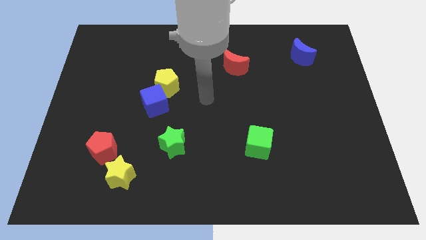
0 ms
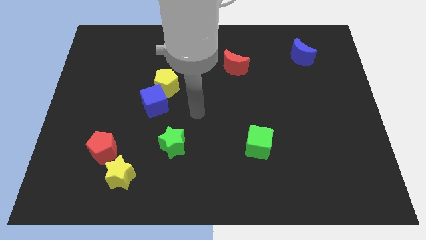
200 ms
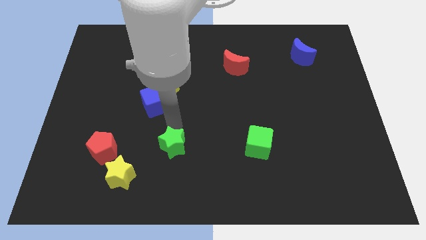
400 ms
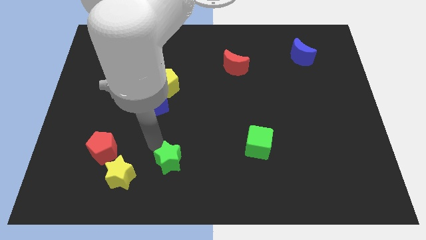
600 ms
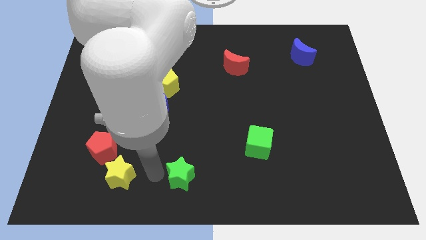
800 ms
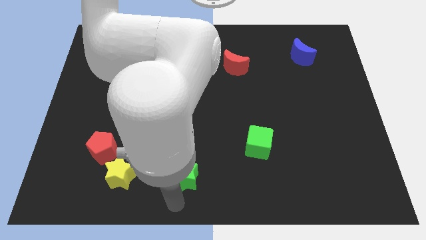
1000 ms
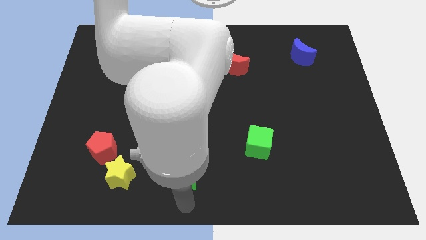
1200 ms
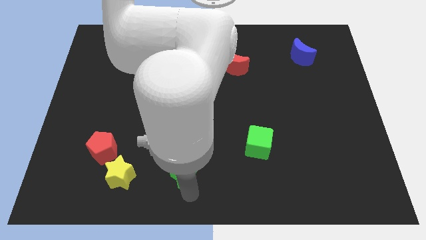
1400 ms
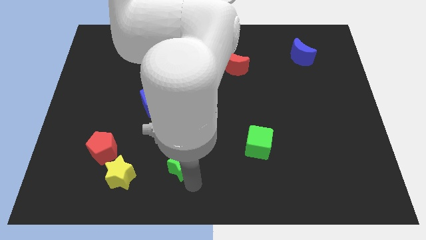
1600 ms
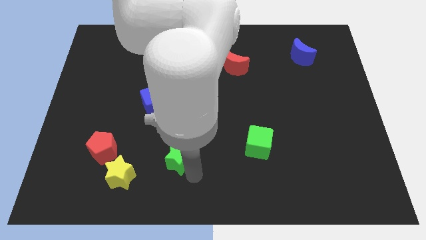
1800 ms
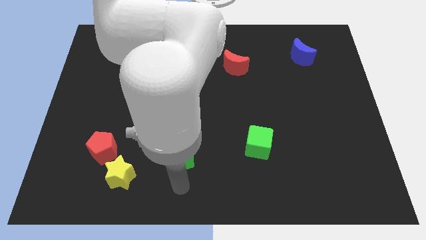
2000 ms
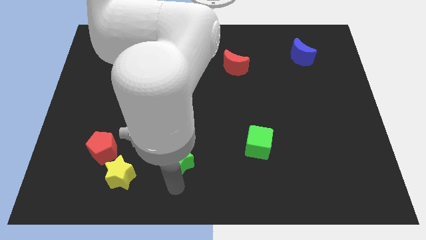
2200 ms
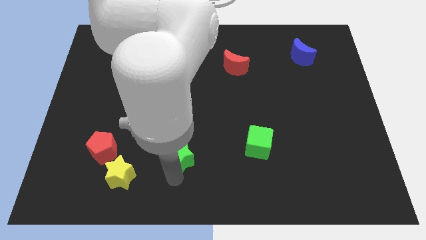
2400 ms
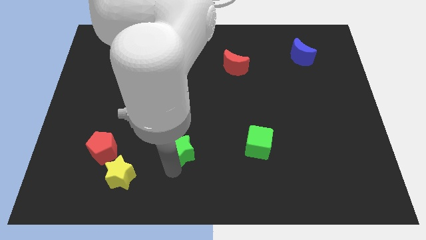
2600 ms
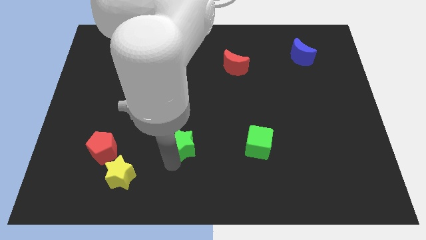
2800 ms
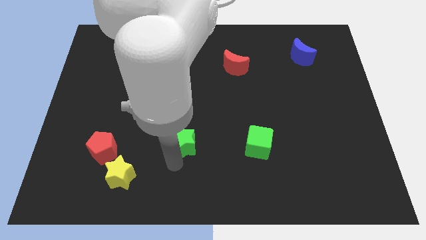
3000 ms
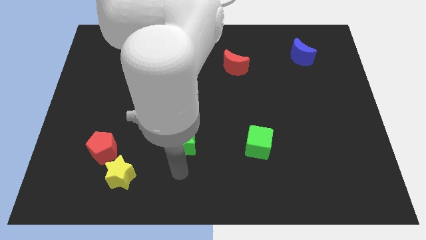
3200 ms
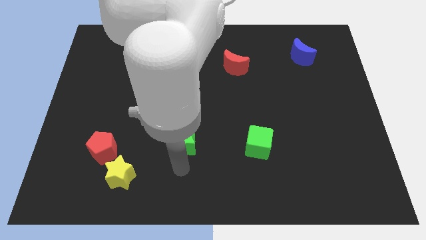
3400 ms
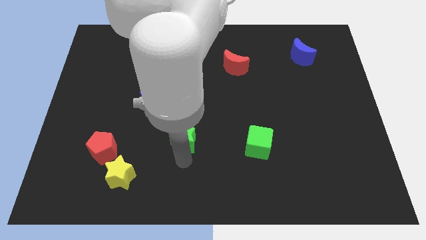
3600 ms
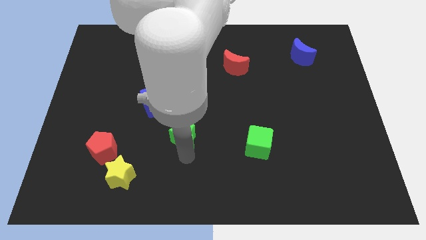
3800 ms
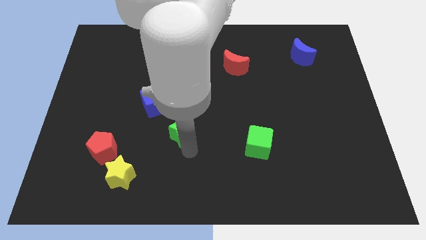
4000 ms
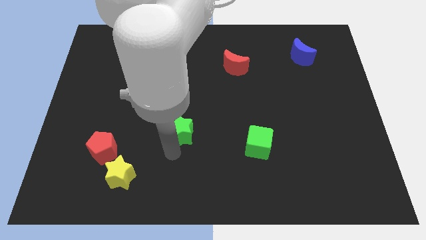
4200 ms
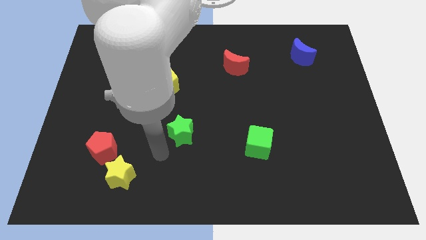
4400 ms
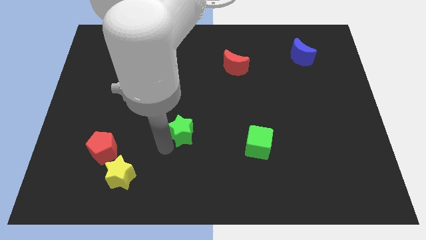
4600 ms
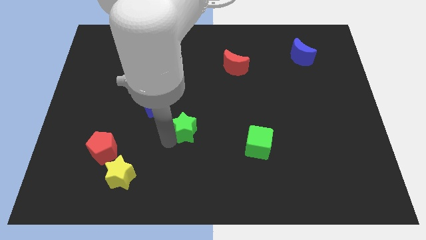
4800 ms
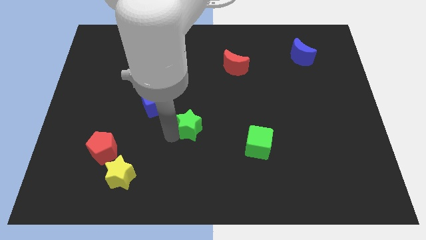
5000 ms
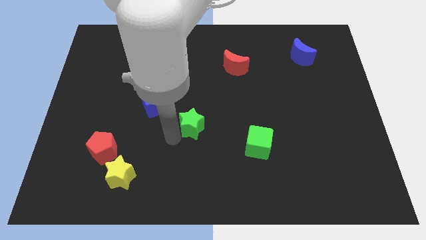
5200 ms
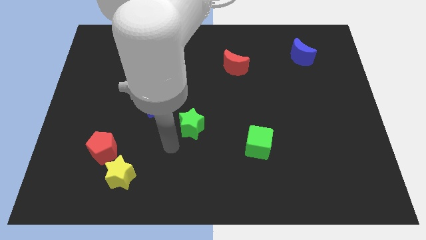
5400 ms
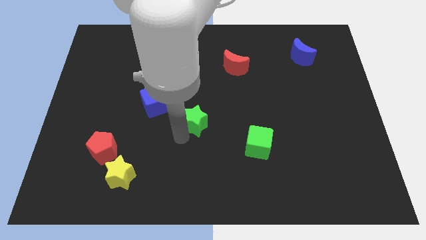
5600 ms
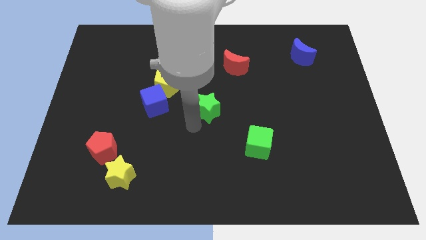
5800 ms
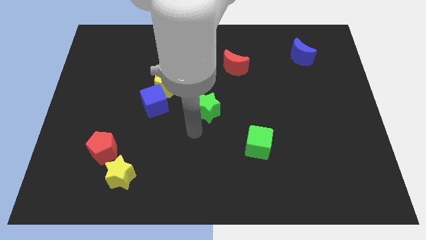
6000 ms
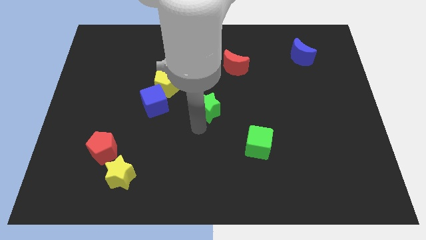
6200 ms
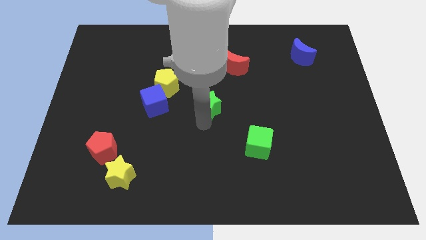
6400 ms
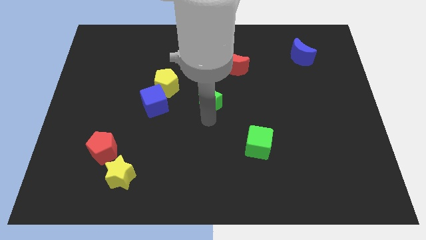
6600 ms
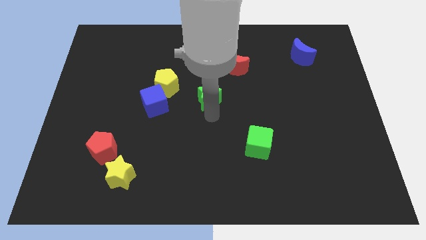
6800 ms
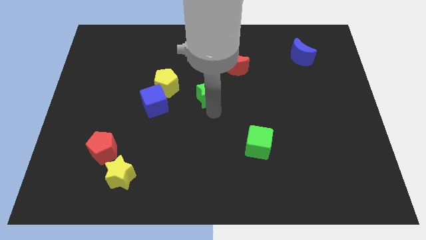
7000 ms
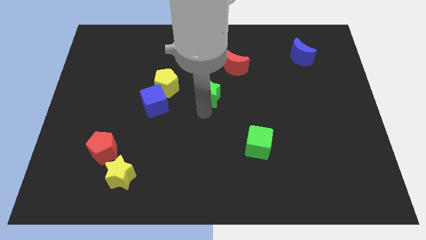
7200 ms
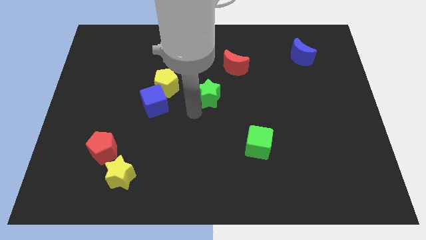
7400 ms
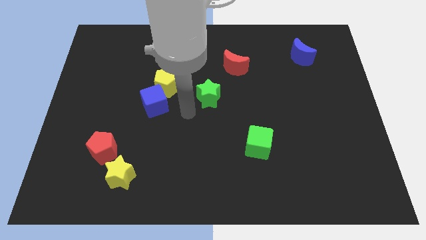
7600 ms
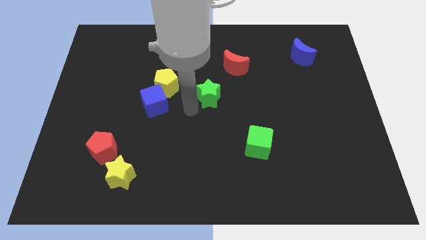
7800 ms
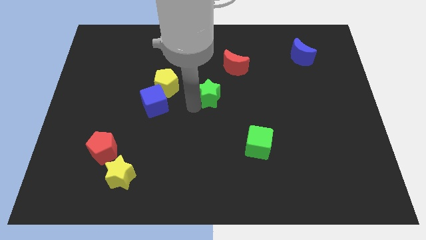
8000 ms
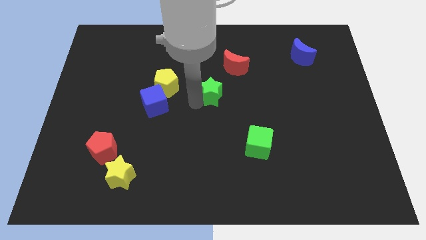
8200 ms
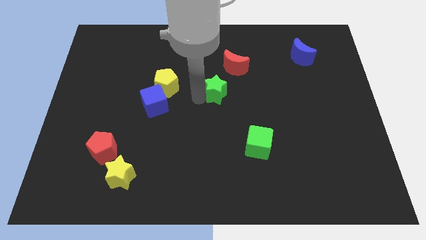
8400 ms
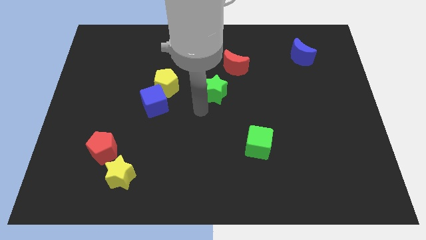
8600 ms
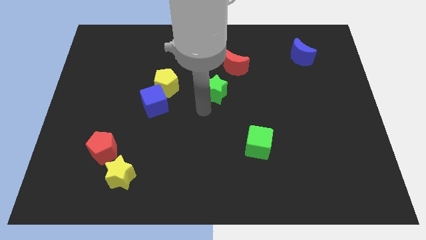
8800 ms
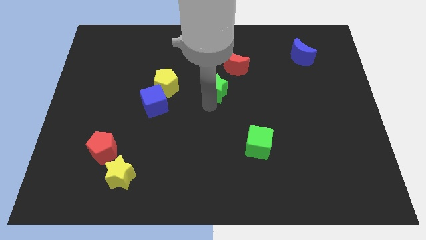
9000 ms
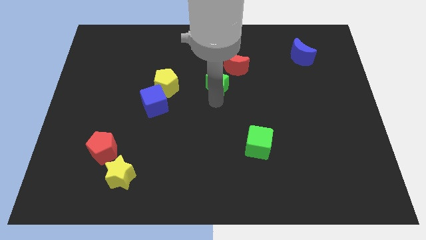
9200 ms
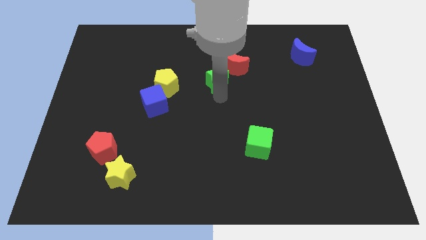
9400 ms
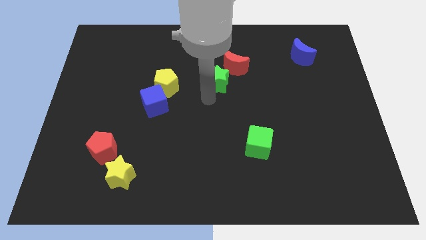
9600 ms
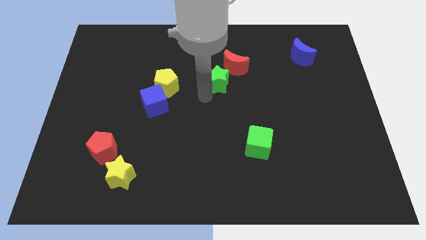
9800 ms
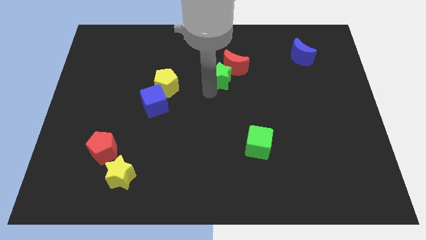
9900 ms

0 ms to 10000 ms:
move the green star towards the red moon

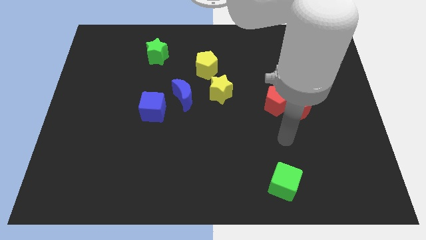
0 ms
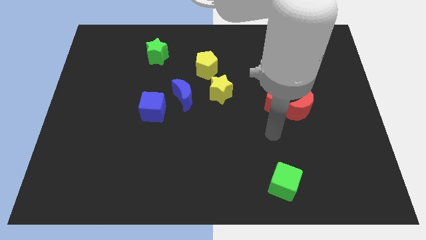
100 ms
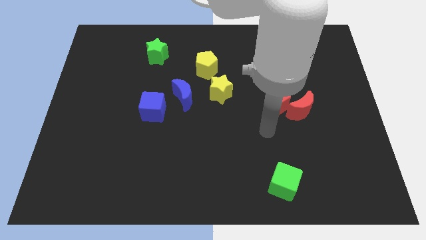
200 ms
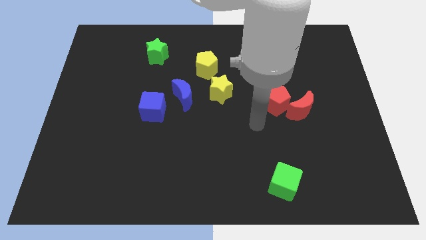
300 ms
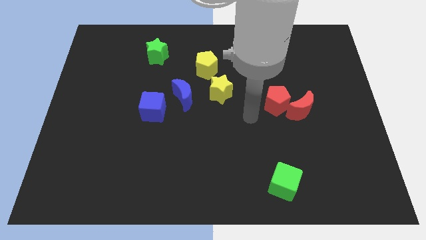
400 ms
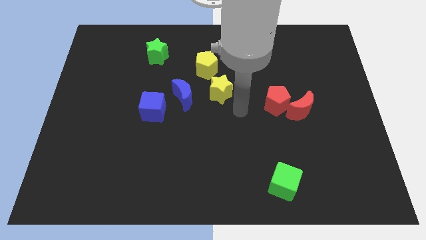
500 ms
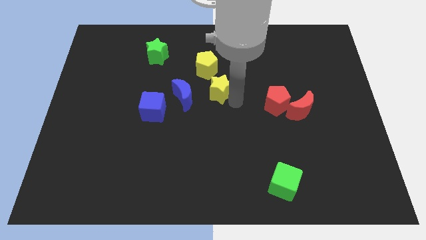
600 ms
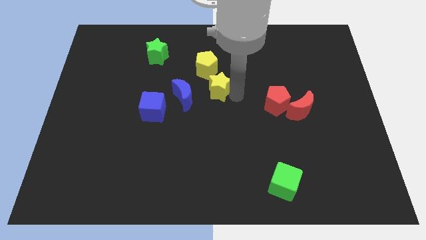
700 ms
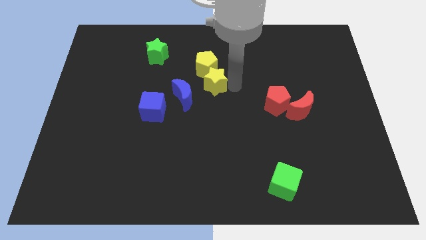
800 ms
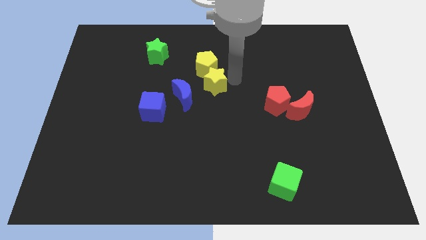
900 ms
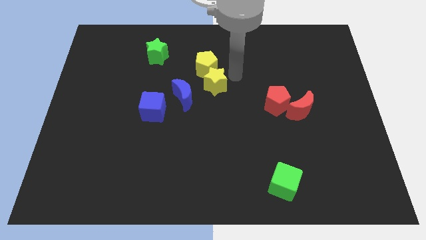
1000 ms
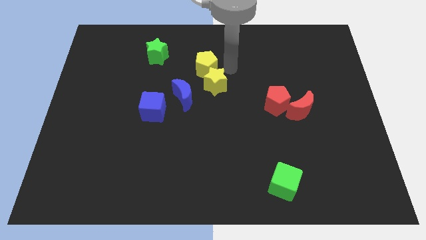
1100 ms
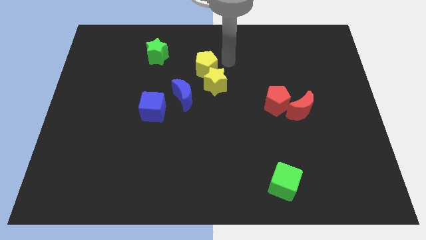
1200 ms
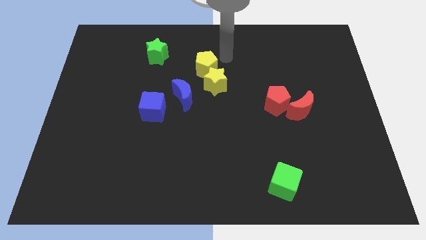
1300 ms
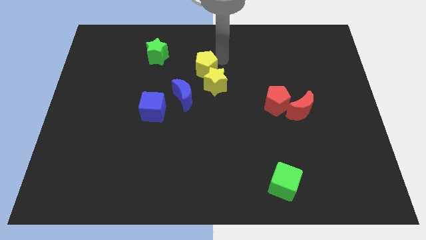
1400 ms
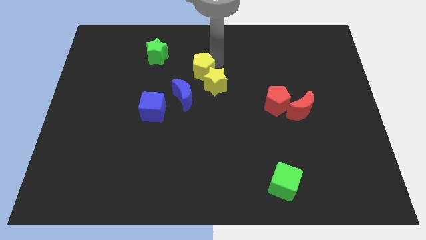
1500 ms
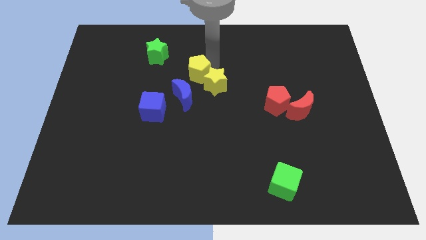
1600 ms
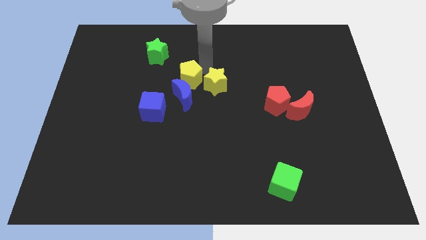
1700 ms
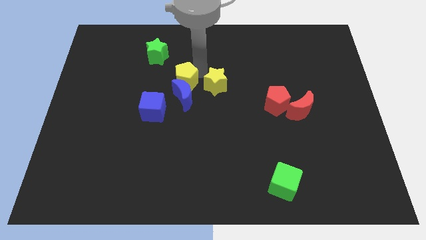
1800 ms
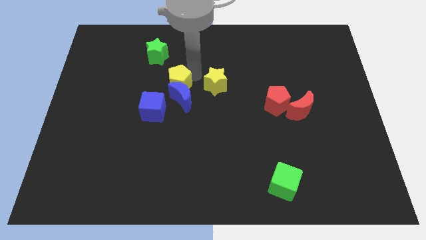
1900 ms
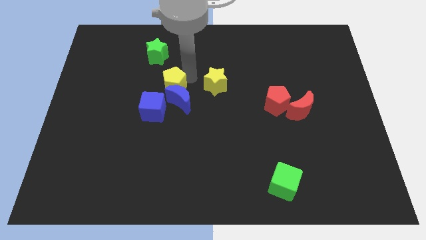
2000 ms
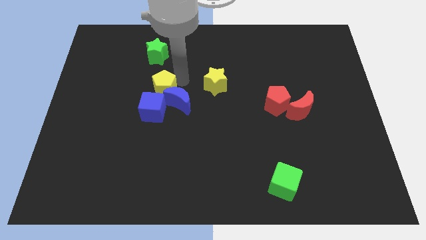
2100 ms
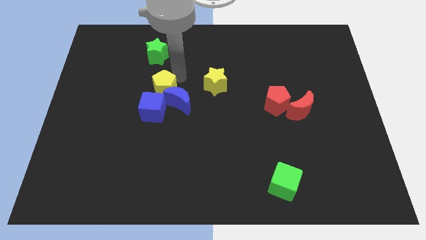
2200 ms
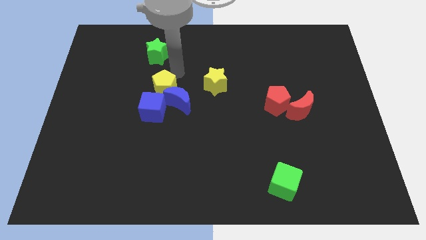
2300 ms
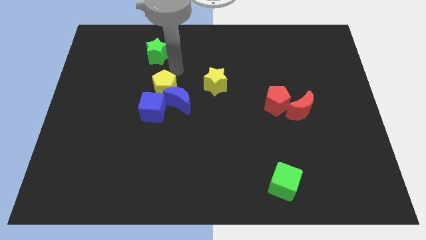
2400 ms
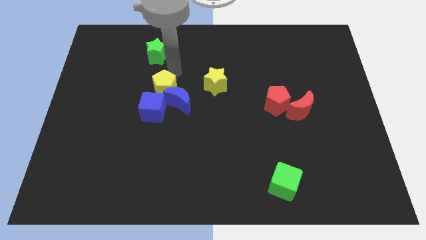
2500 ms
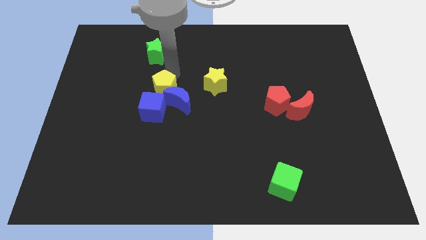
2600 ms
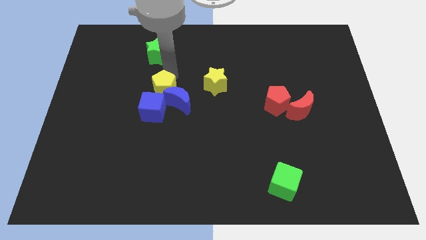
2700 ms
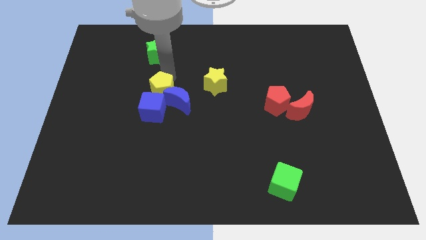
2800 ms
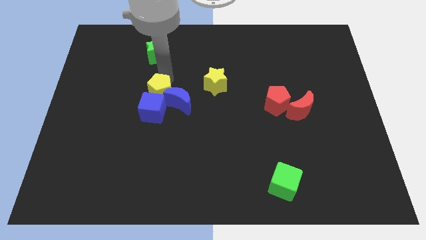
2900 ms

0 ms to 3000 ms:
put the yellow pentagon close to the blue cube
